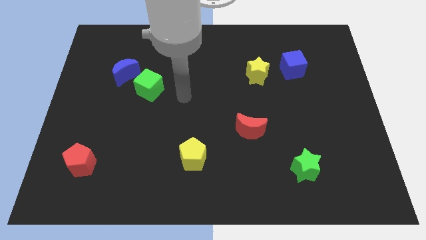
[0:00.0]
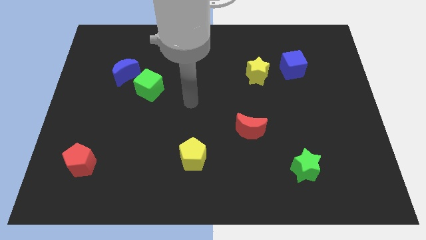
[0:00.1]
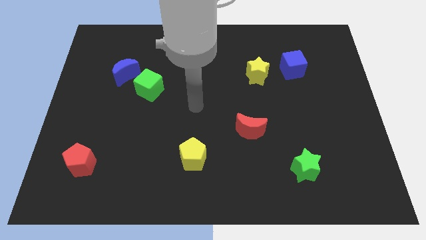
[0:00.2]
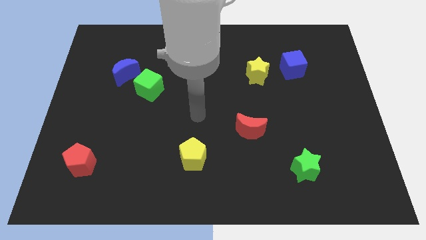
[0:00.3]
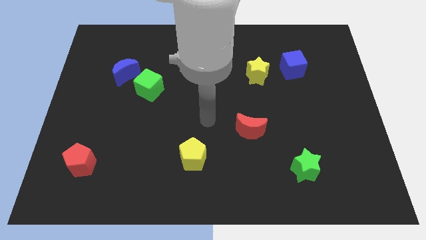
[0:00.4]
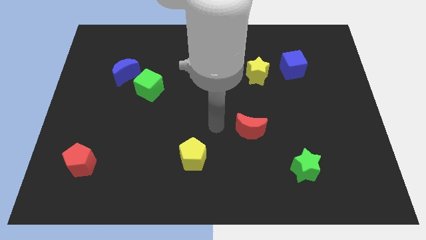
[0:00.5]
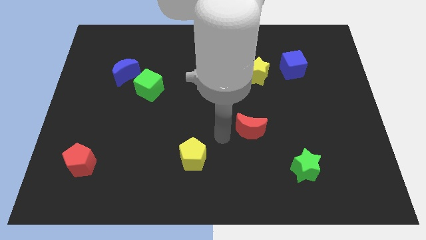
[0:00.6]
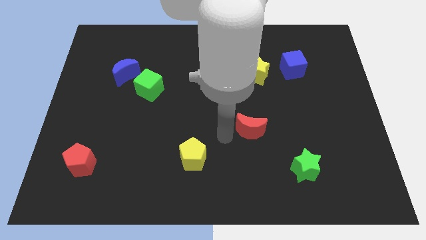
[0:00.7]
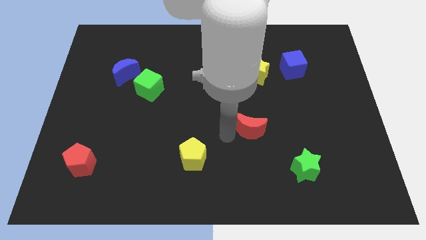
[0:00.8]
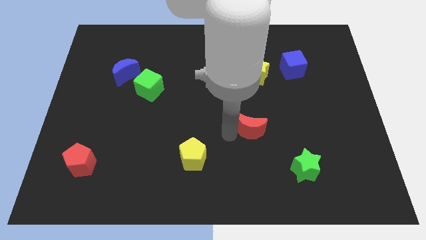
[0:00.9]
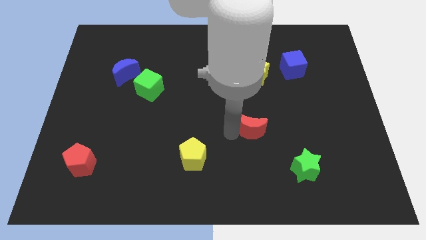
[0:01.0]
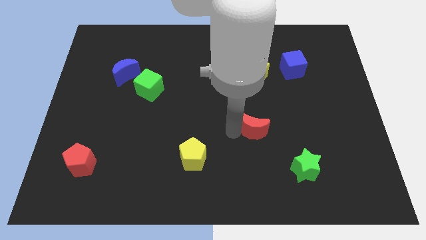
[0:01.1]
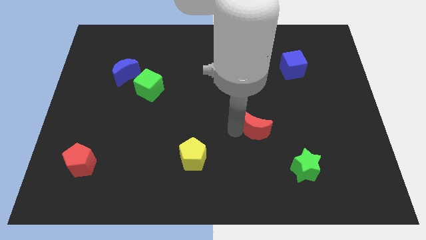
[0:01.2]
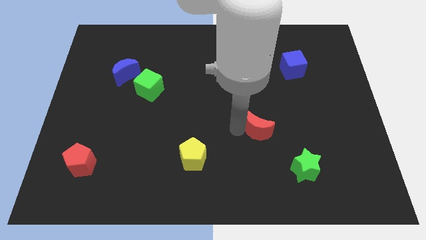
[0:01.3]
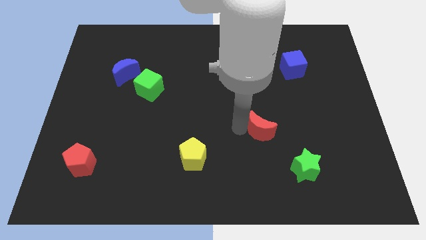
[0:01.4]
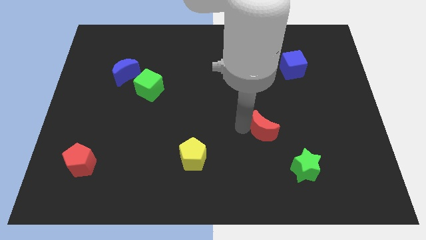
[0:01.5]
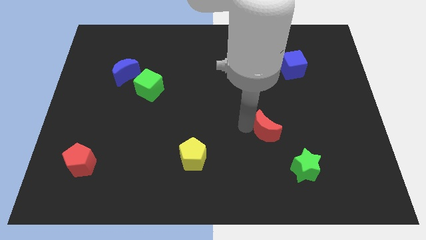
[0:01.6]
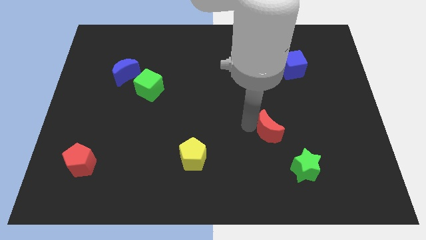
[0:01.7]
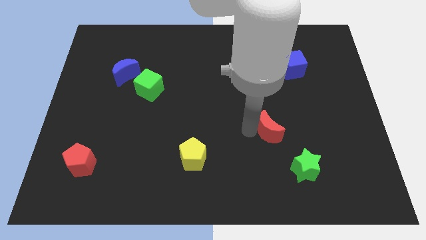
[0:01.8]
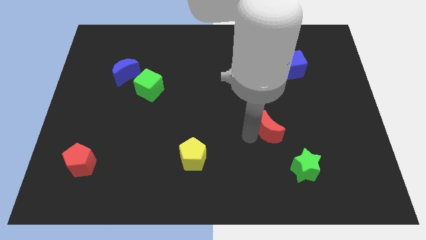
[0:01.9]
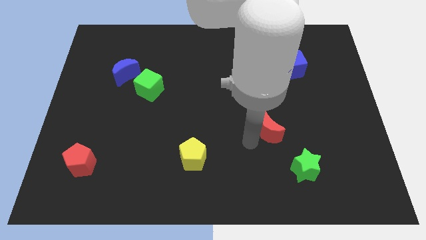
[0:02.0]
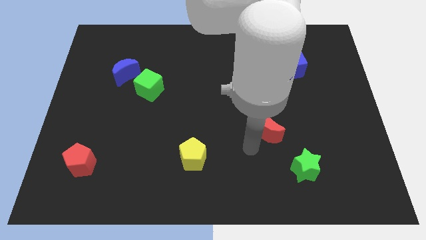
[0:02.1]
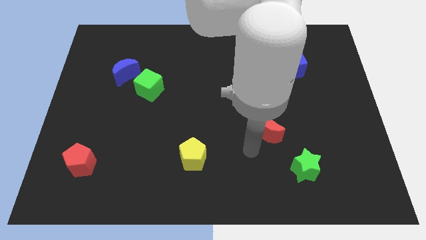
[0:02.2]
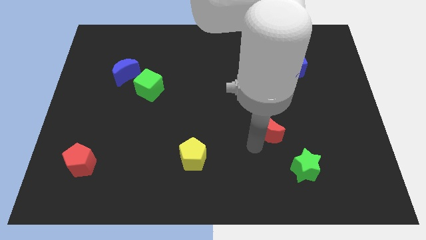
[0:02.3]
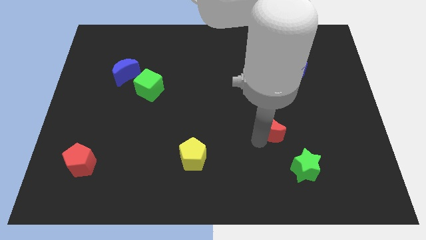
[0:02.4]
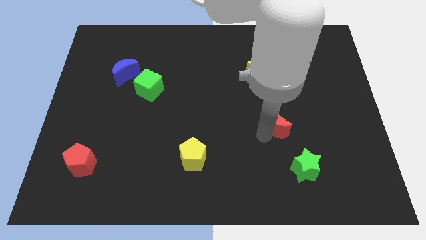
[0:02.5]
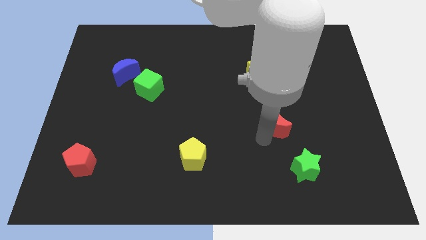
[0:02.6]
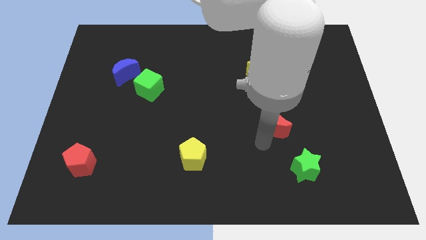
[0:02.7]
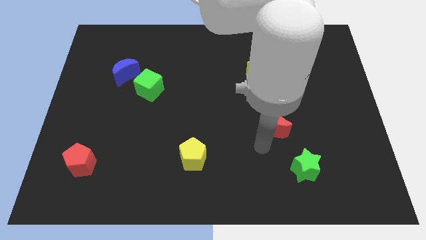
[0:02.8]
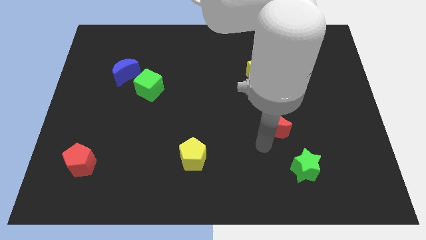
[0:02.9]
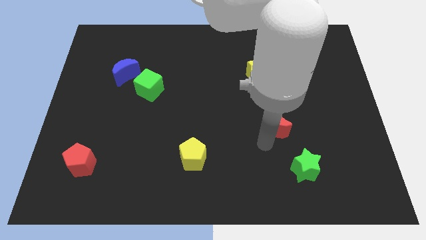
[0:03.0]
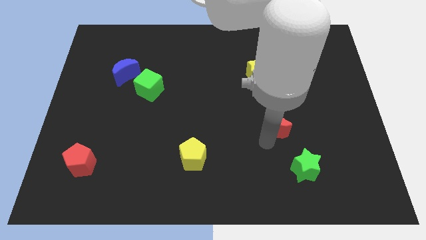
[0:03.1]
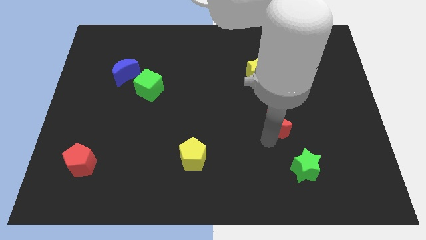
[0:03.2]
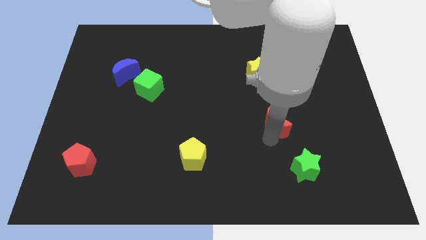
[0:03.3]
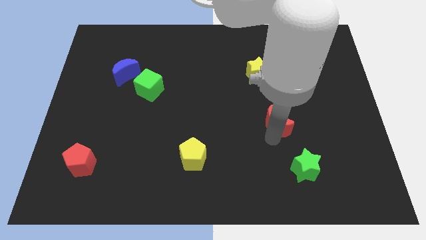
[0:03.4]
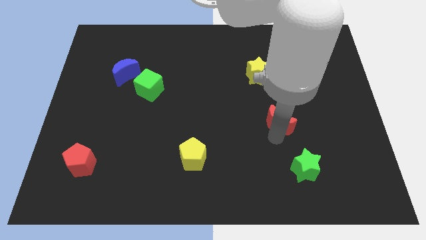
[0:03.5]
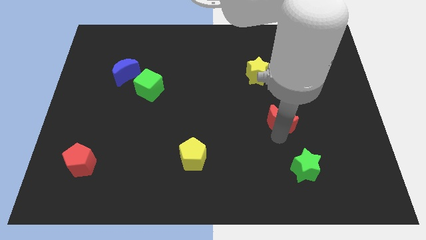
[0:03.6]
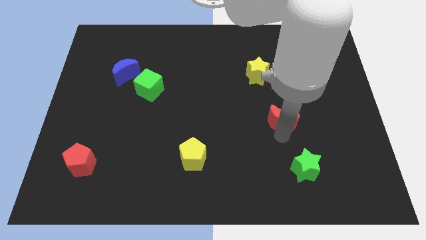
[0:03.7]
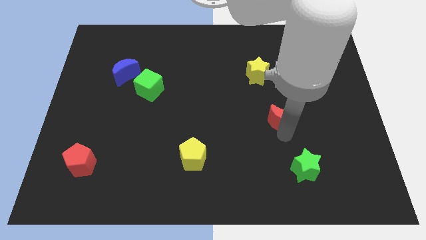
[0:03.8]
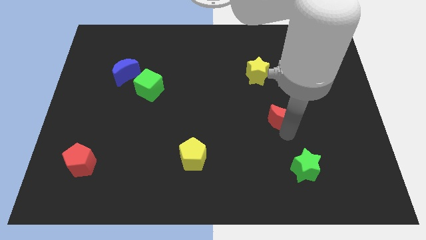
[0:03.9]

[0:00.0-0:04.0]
move the red moon a little bit diagonally up and right

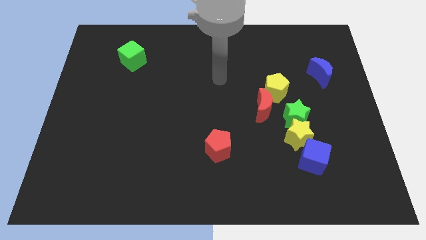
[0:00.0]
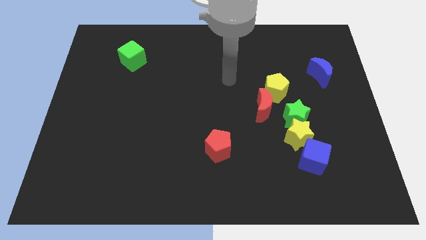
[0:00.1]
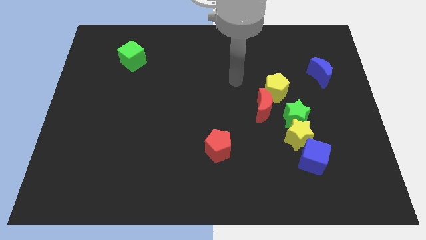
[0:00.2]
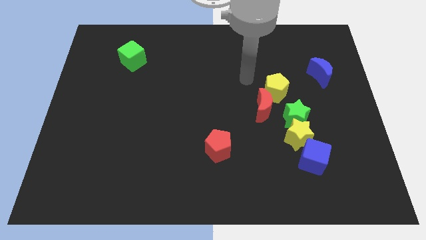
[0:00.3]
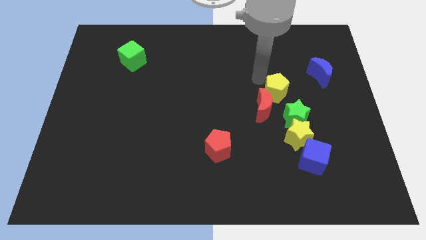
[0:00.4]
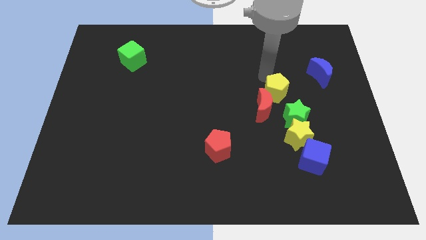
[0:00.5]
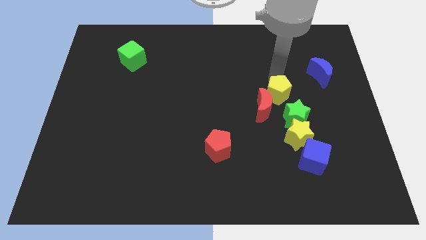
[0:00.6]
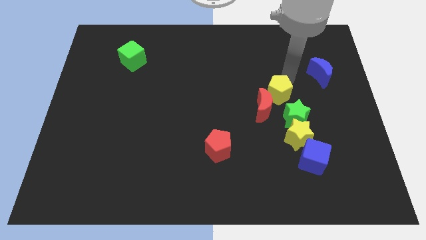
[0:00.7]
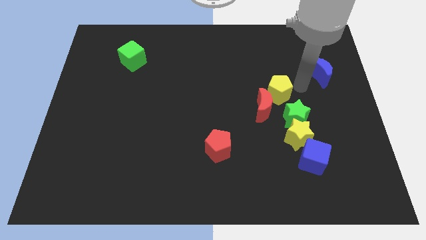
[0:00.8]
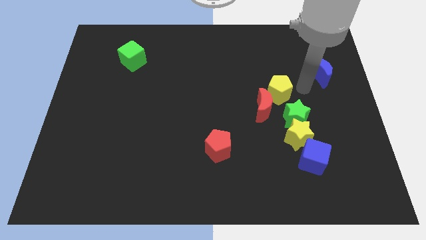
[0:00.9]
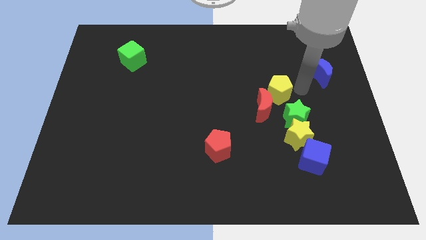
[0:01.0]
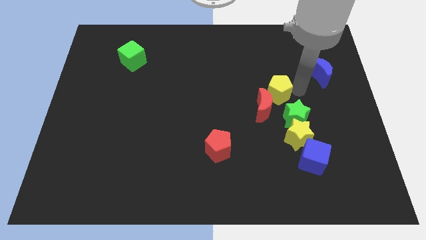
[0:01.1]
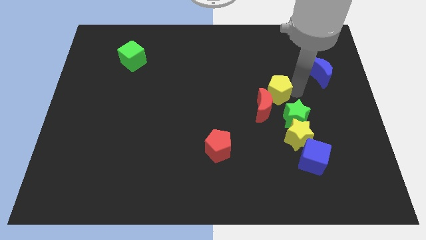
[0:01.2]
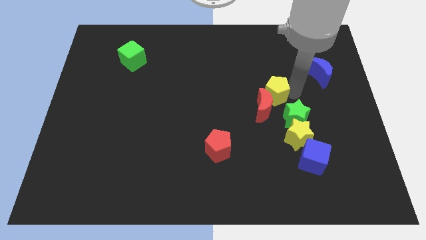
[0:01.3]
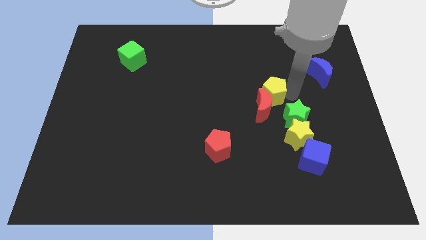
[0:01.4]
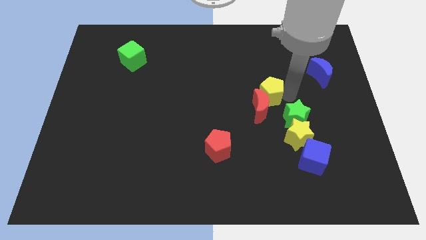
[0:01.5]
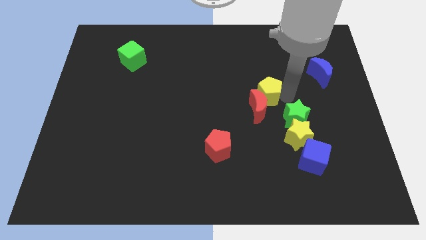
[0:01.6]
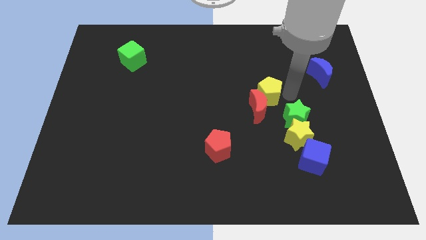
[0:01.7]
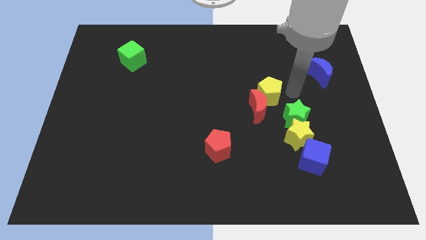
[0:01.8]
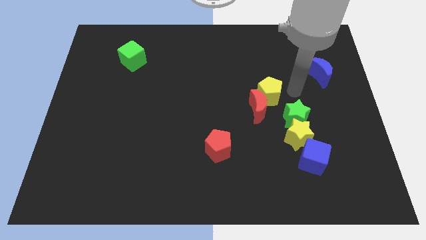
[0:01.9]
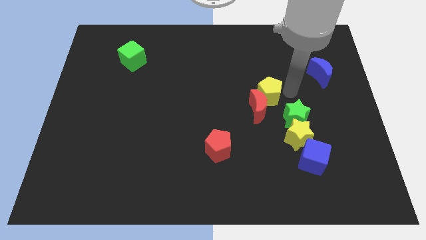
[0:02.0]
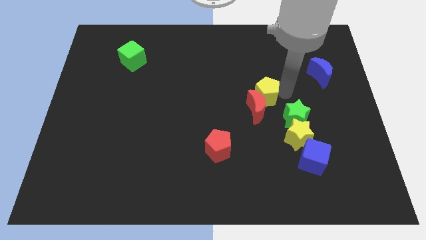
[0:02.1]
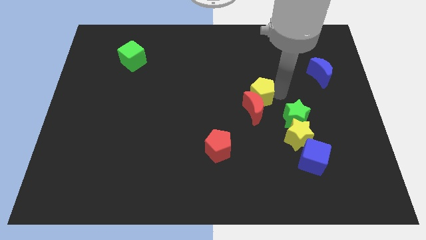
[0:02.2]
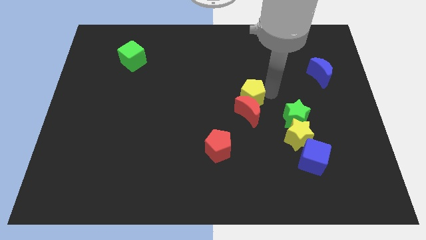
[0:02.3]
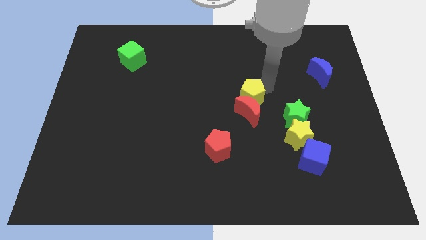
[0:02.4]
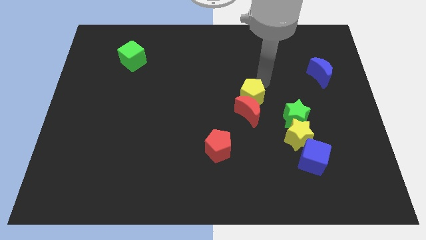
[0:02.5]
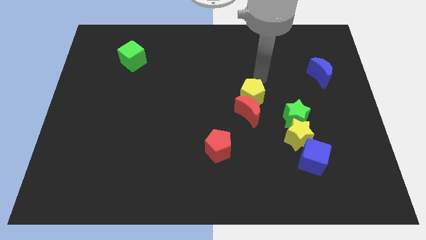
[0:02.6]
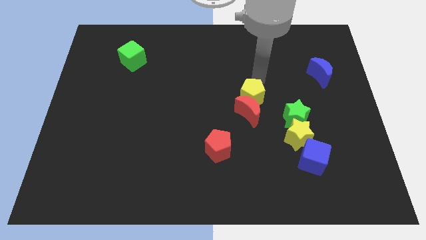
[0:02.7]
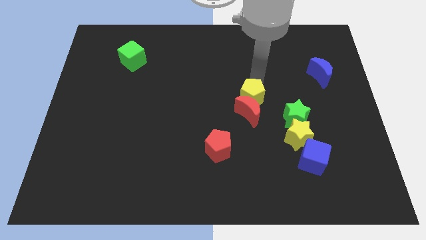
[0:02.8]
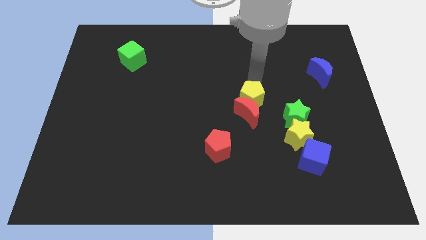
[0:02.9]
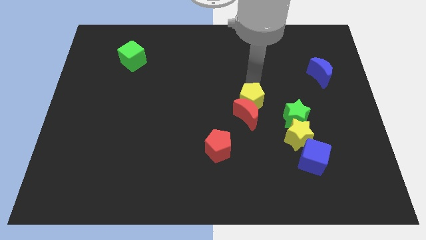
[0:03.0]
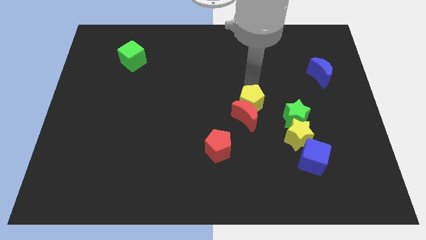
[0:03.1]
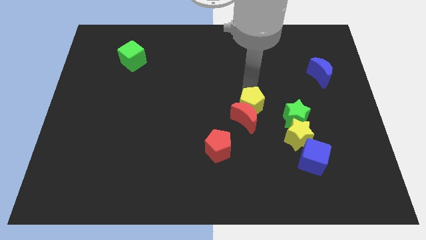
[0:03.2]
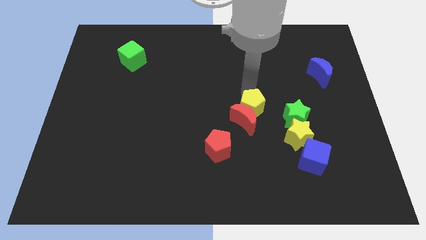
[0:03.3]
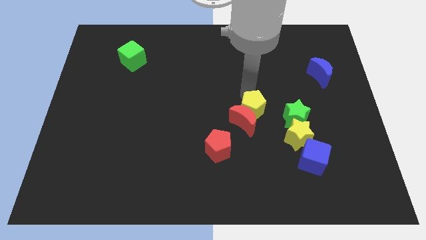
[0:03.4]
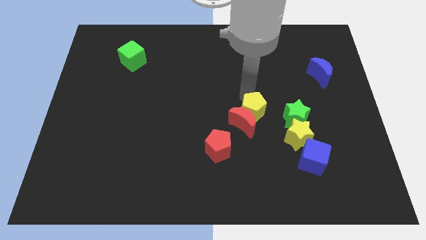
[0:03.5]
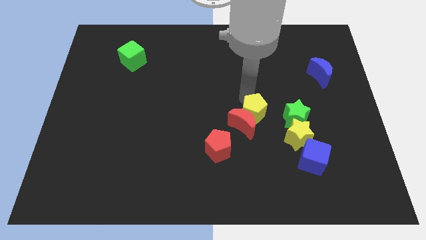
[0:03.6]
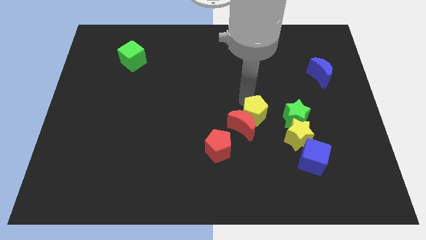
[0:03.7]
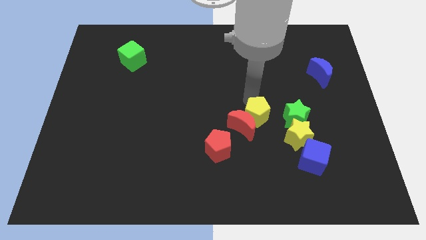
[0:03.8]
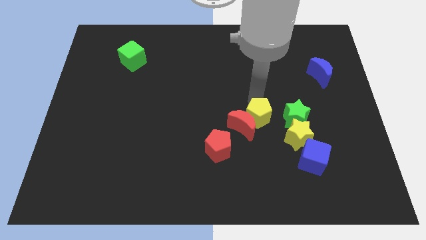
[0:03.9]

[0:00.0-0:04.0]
push the yellow pentagon down somewhat
